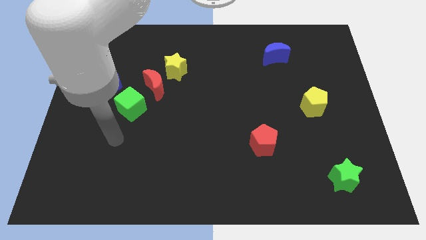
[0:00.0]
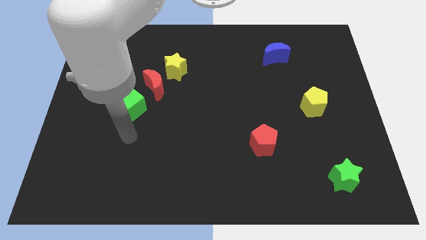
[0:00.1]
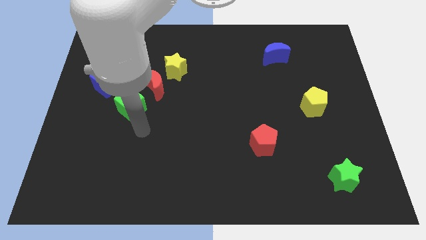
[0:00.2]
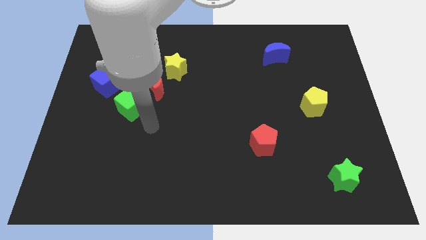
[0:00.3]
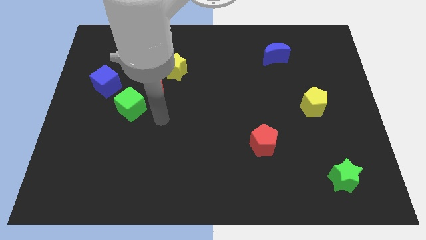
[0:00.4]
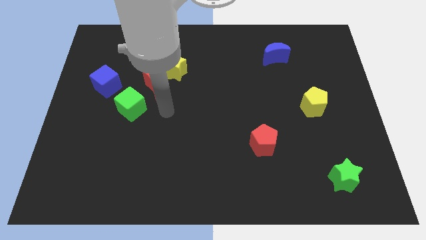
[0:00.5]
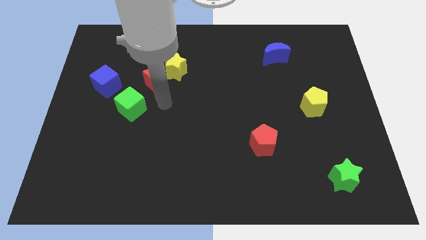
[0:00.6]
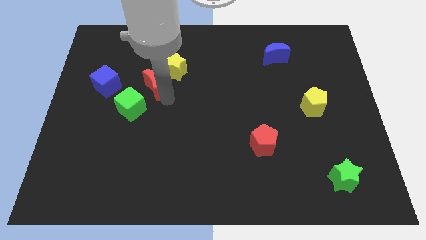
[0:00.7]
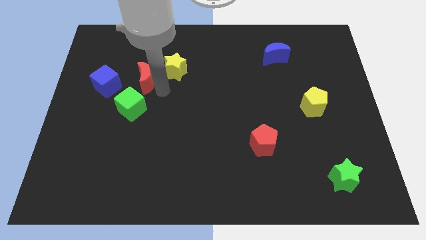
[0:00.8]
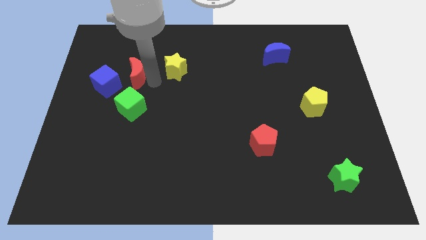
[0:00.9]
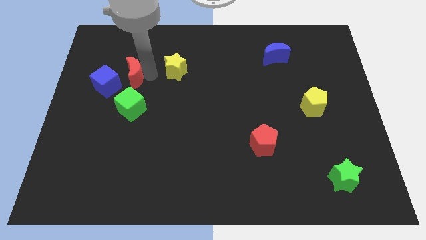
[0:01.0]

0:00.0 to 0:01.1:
move the yellow star away from the red moon

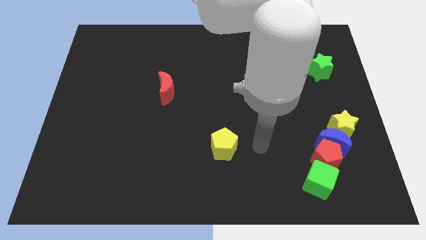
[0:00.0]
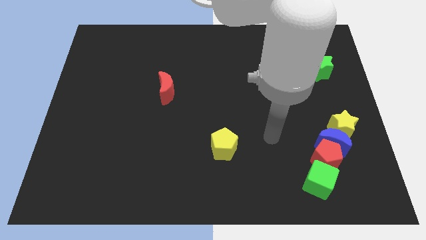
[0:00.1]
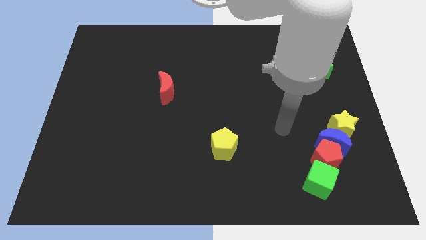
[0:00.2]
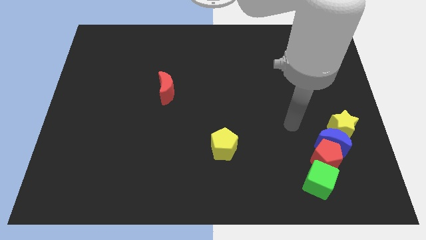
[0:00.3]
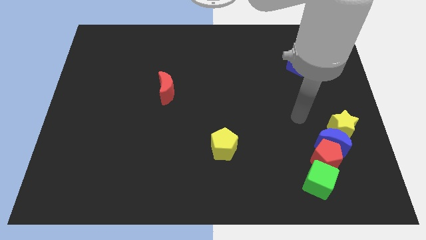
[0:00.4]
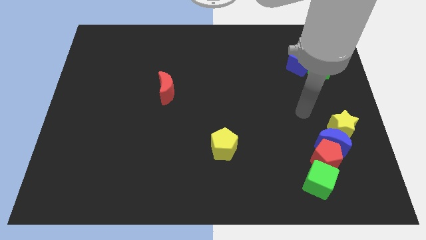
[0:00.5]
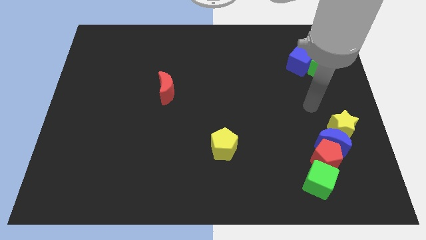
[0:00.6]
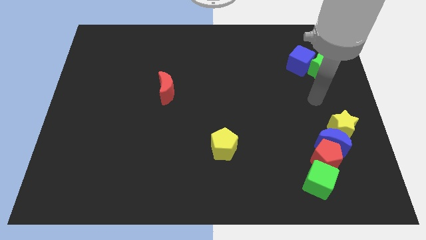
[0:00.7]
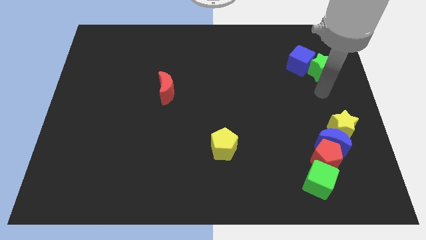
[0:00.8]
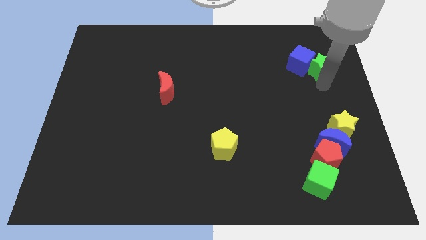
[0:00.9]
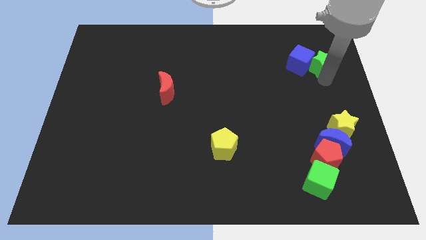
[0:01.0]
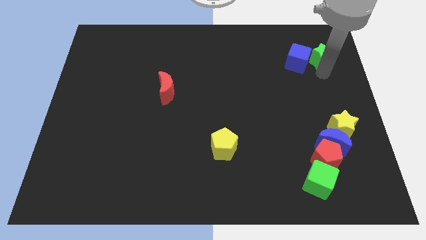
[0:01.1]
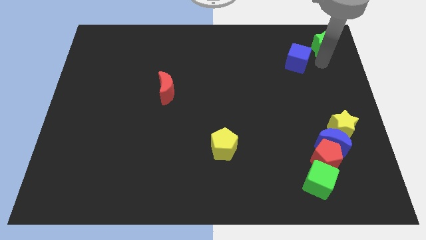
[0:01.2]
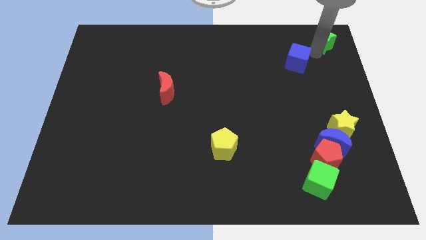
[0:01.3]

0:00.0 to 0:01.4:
pull the blue cube apart from the green star

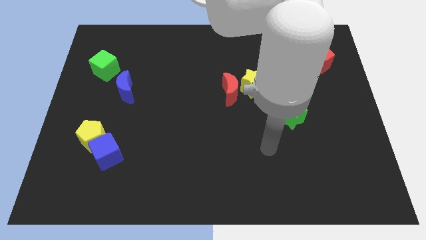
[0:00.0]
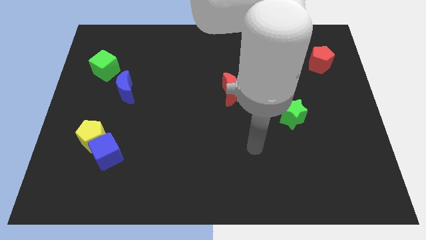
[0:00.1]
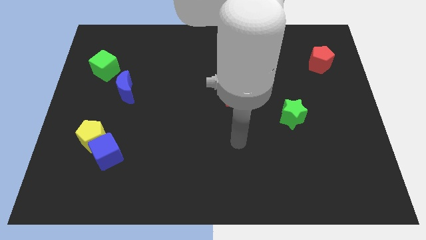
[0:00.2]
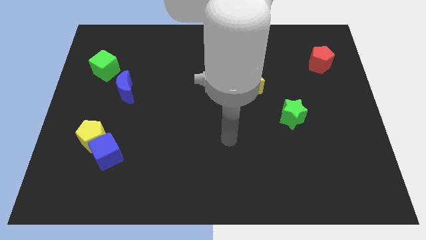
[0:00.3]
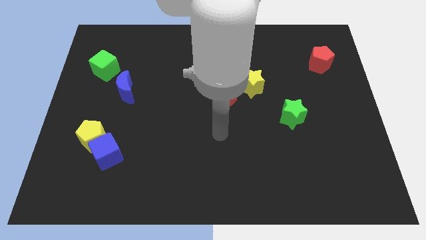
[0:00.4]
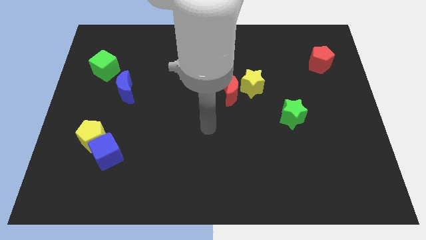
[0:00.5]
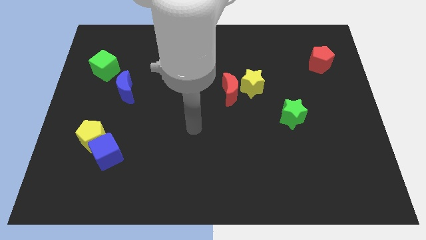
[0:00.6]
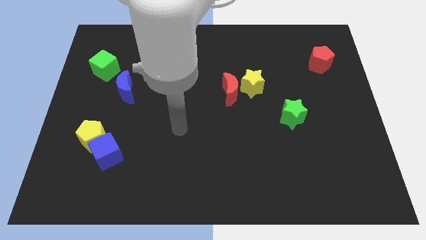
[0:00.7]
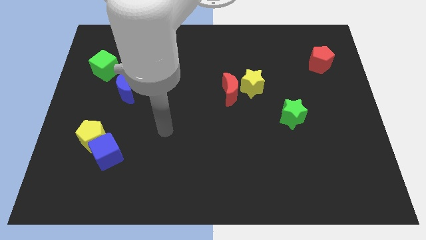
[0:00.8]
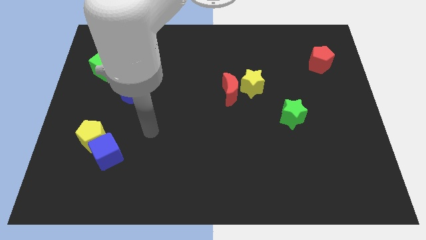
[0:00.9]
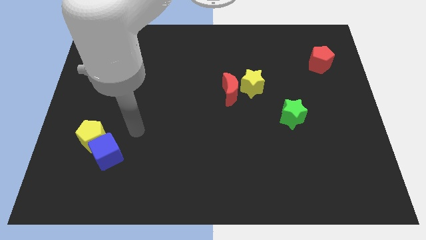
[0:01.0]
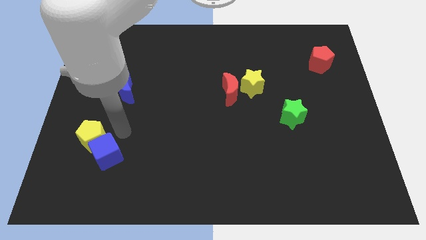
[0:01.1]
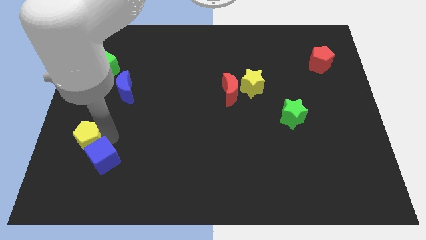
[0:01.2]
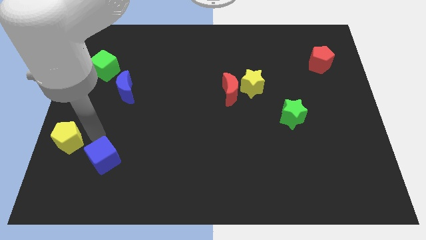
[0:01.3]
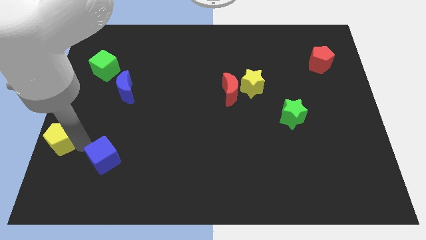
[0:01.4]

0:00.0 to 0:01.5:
move the blue cube away from the yellow pentagon

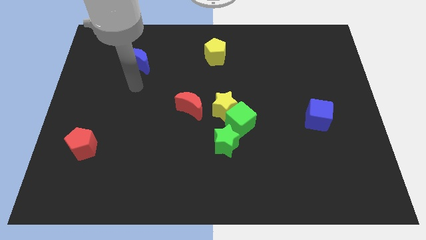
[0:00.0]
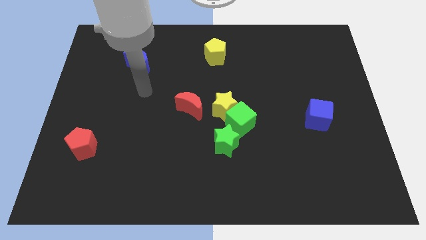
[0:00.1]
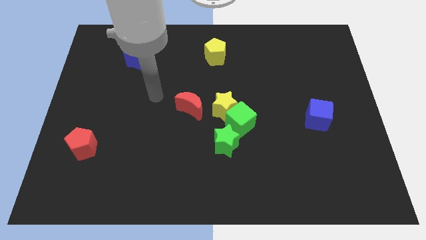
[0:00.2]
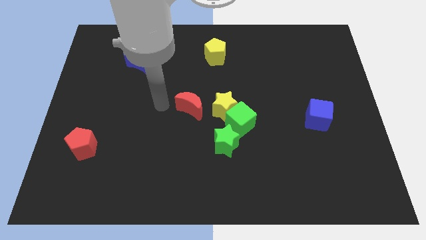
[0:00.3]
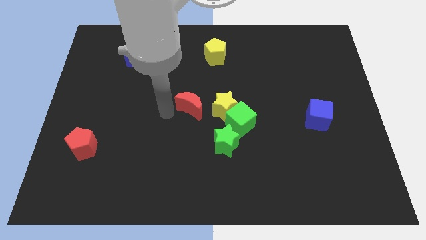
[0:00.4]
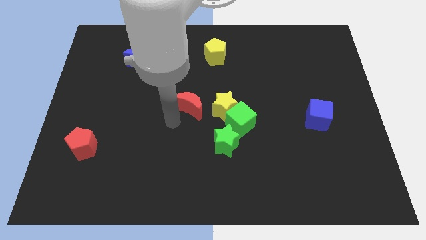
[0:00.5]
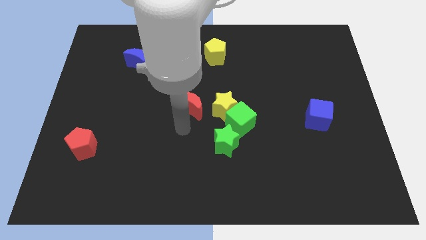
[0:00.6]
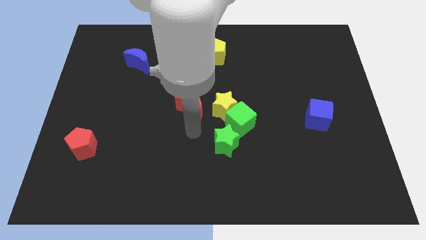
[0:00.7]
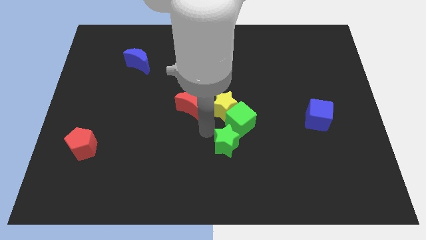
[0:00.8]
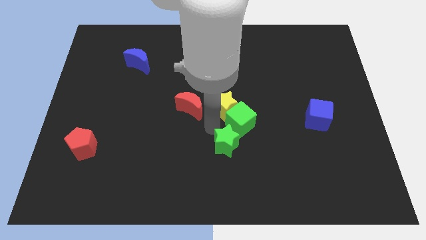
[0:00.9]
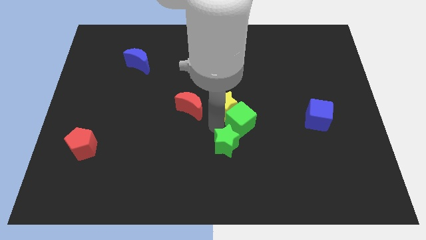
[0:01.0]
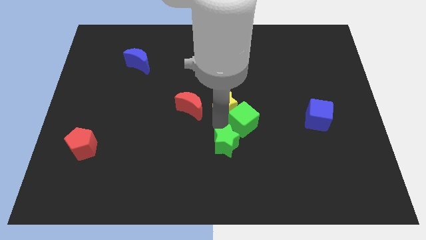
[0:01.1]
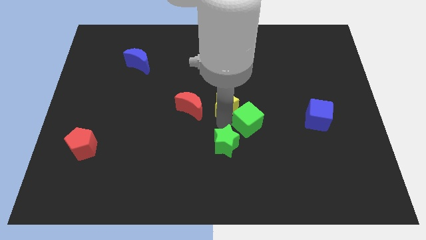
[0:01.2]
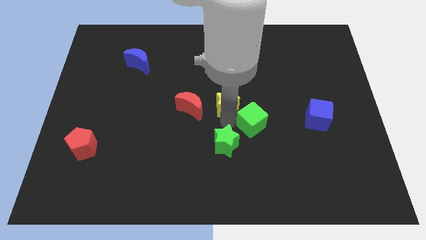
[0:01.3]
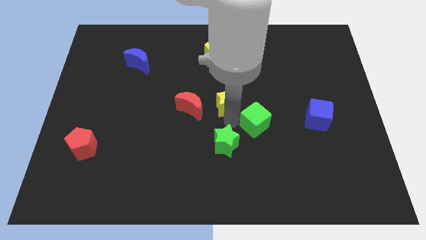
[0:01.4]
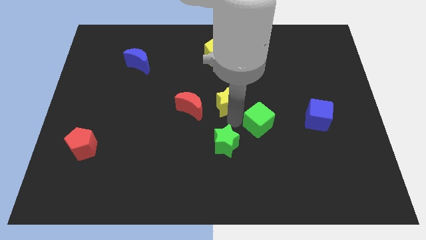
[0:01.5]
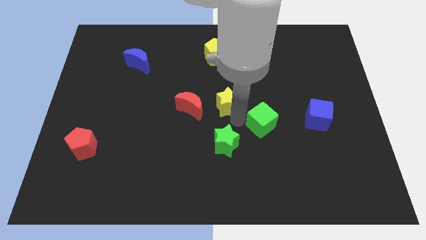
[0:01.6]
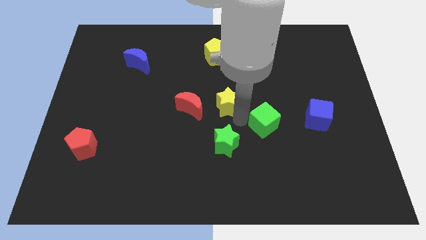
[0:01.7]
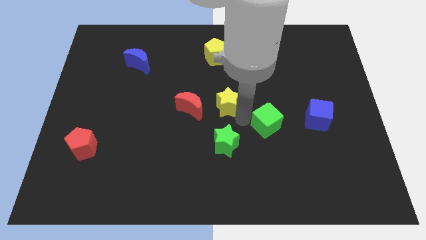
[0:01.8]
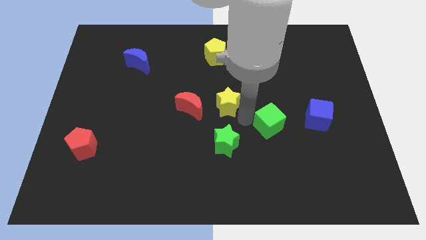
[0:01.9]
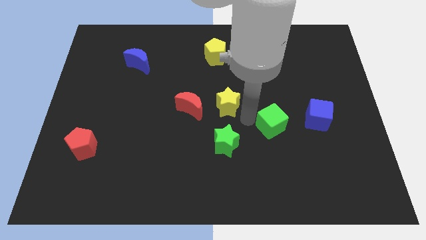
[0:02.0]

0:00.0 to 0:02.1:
pull the green cube apart from the yellow star and green star

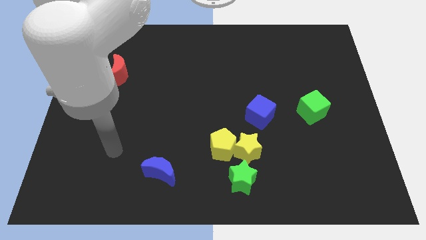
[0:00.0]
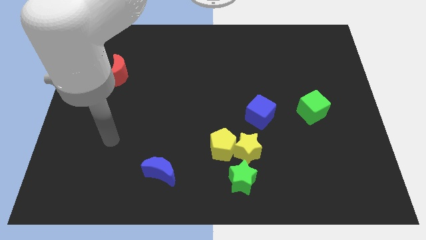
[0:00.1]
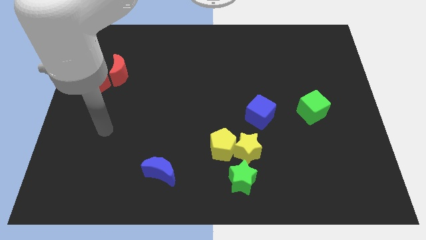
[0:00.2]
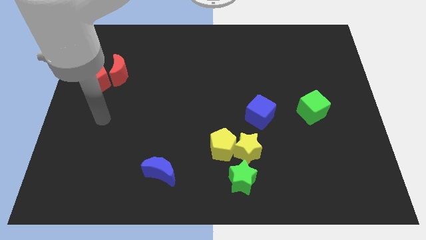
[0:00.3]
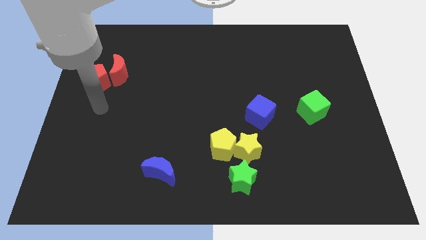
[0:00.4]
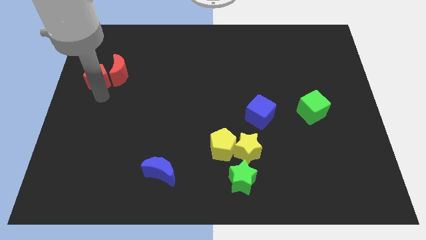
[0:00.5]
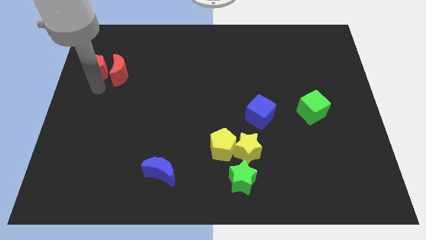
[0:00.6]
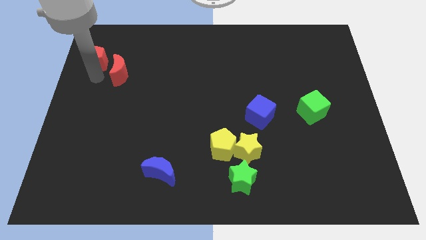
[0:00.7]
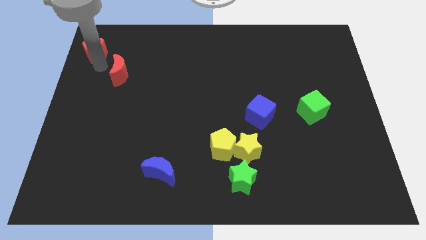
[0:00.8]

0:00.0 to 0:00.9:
pull the red moon apart from the red pentagon

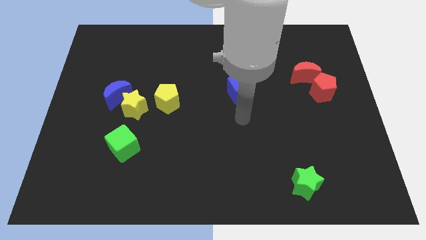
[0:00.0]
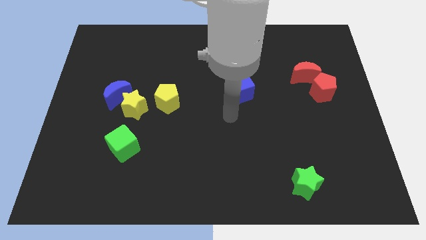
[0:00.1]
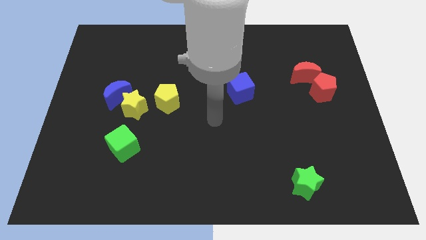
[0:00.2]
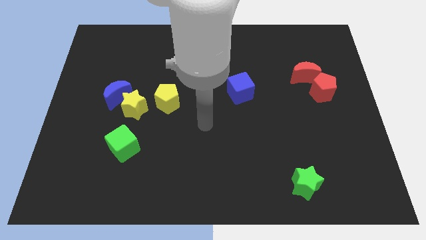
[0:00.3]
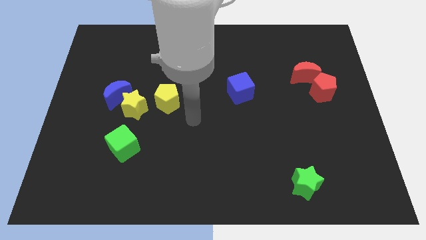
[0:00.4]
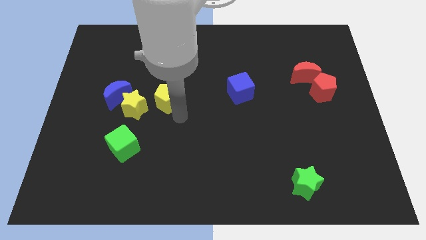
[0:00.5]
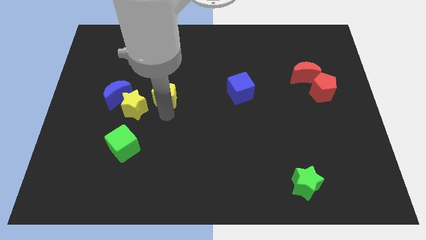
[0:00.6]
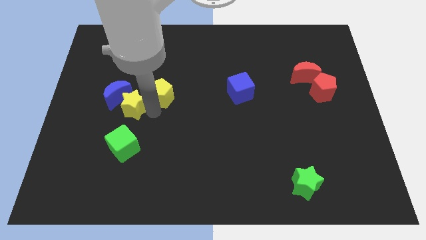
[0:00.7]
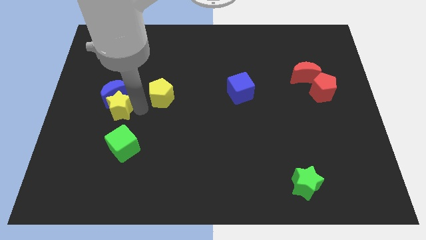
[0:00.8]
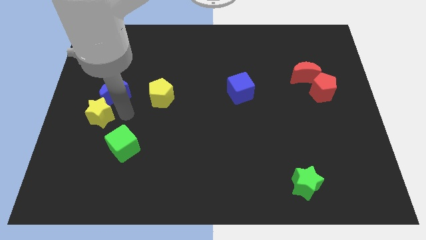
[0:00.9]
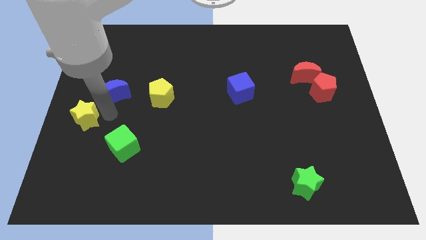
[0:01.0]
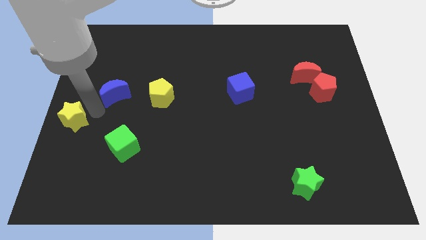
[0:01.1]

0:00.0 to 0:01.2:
pull the blue moon apart from the yellow star

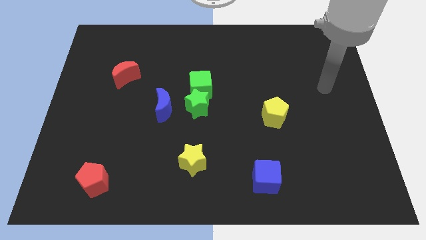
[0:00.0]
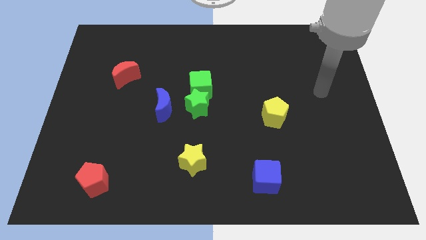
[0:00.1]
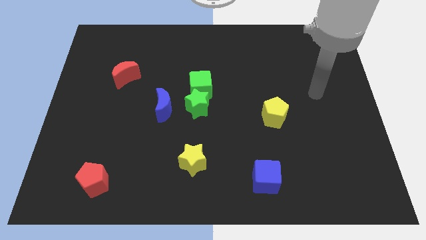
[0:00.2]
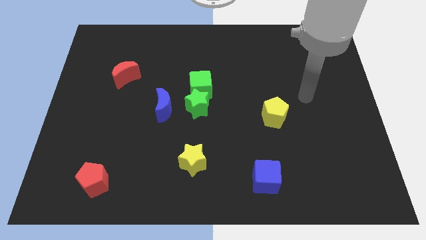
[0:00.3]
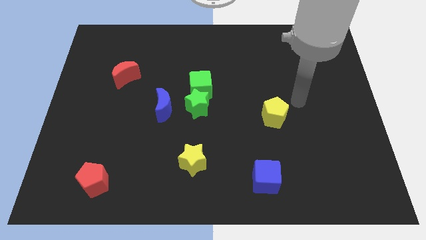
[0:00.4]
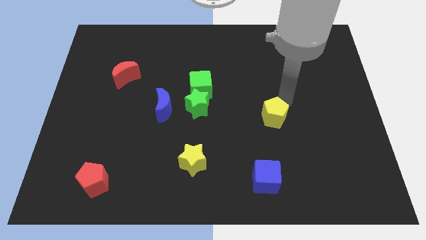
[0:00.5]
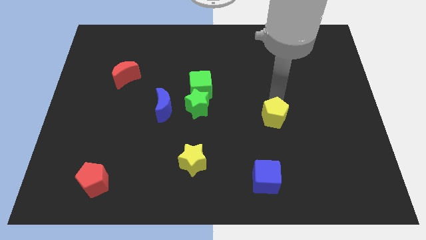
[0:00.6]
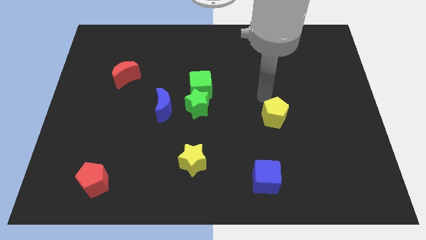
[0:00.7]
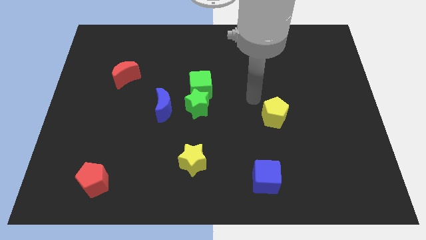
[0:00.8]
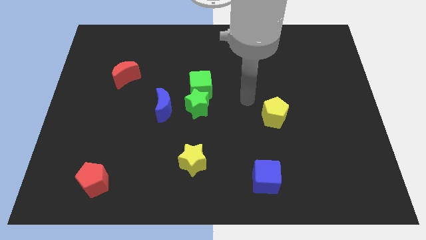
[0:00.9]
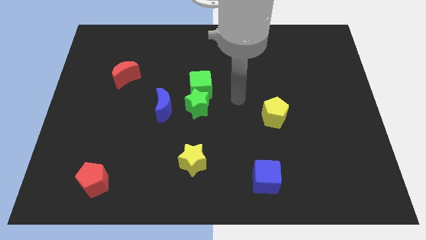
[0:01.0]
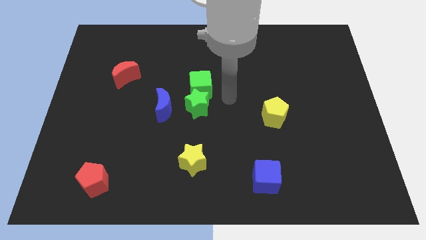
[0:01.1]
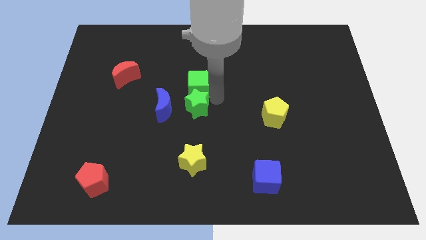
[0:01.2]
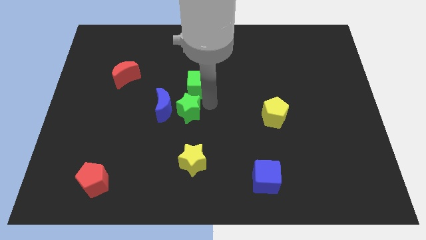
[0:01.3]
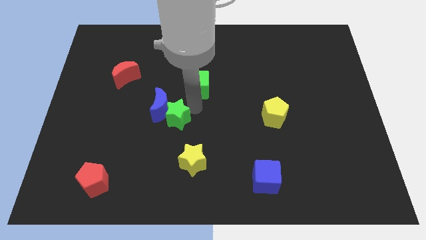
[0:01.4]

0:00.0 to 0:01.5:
pull the green cube apart from the green star
